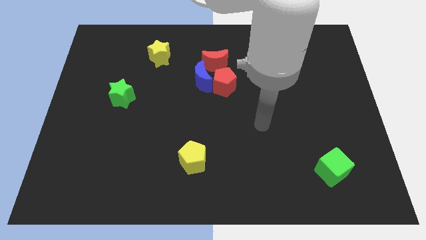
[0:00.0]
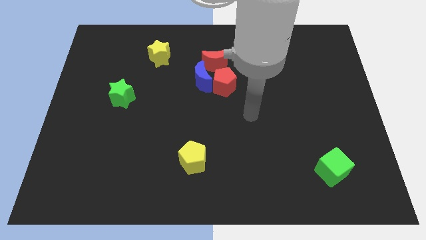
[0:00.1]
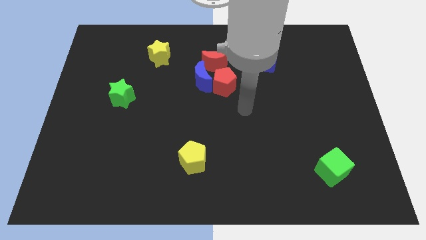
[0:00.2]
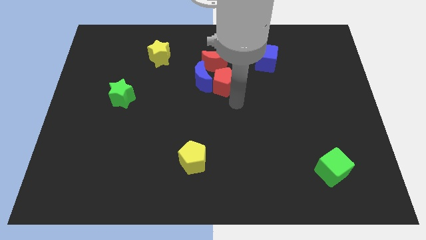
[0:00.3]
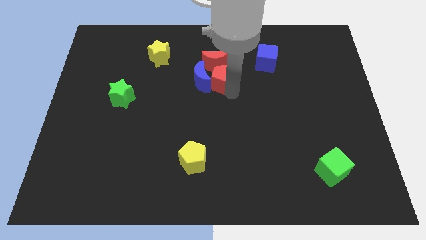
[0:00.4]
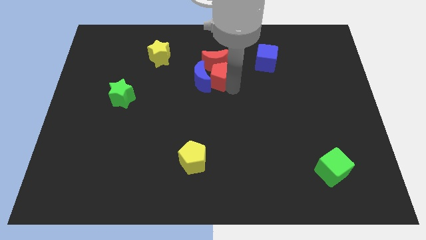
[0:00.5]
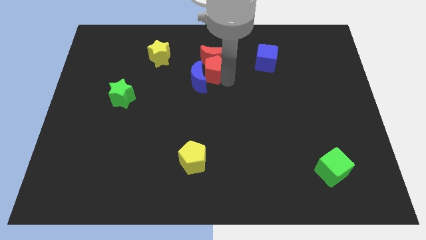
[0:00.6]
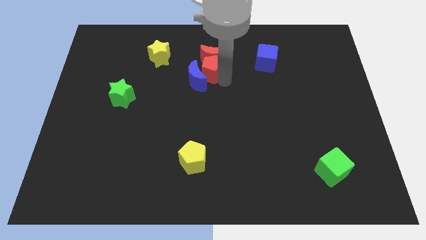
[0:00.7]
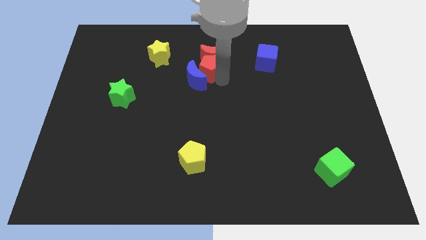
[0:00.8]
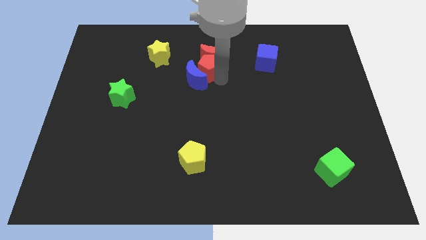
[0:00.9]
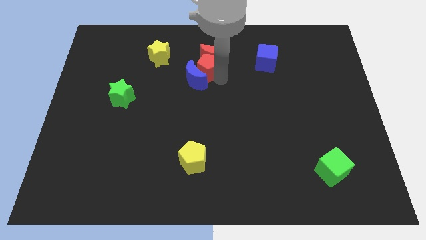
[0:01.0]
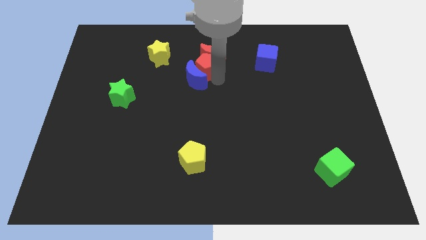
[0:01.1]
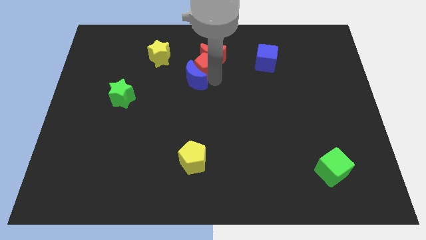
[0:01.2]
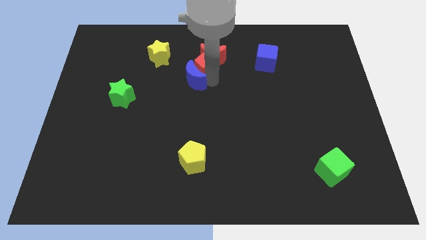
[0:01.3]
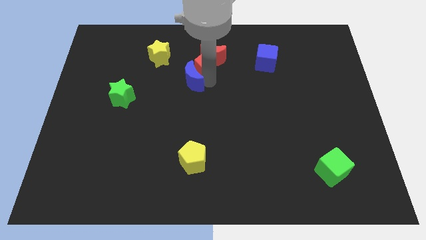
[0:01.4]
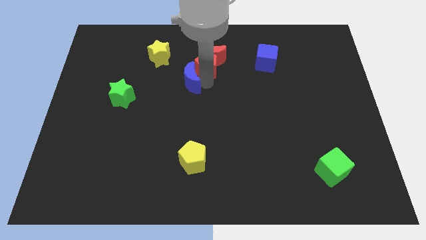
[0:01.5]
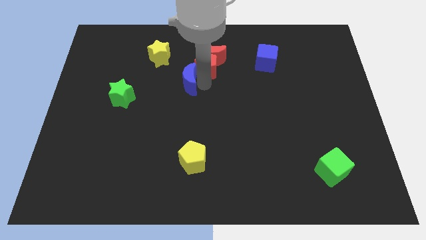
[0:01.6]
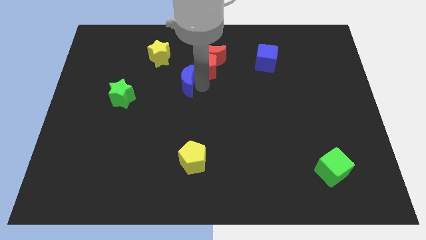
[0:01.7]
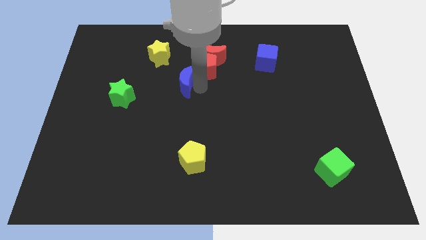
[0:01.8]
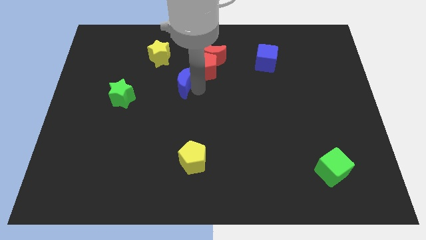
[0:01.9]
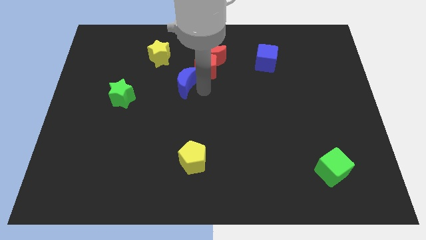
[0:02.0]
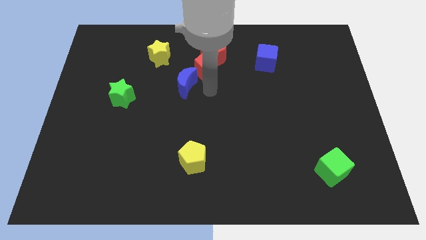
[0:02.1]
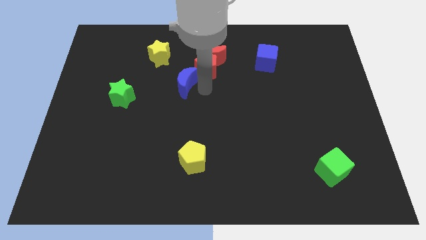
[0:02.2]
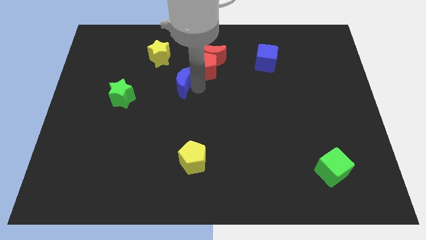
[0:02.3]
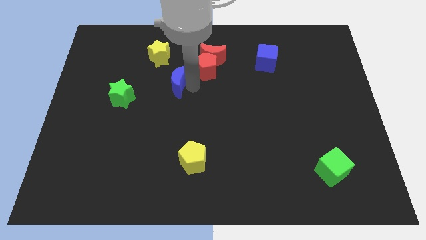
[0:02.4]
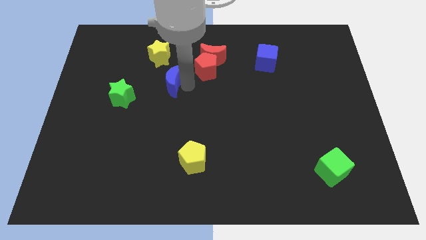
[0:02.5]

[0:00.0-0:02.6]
slightly slide the blue moon left

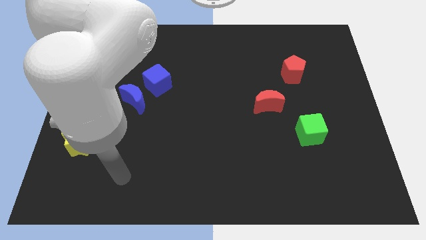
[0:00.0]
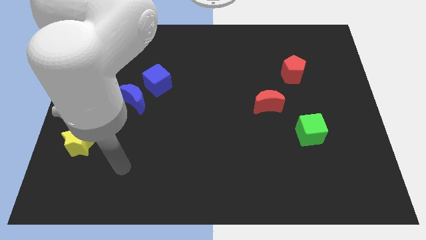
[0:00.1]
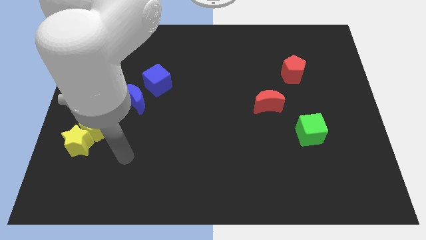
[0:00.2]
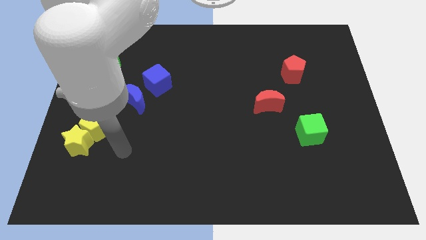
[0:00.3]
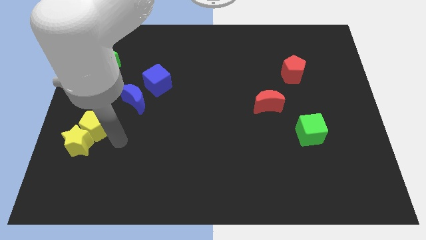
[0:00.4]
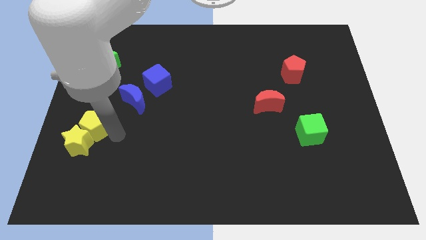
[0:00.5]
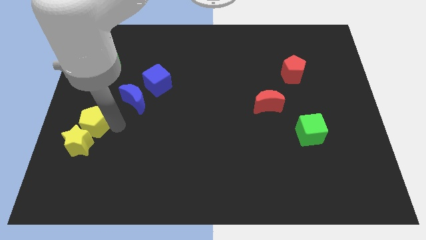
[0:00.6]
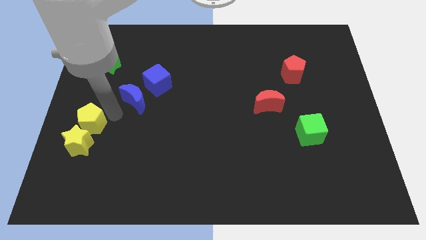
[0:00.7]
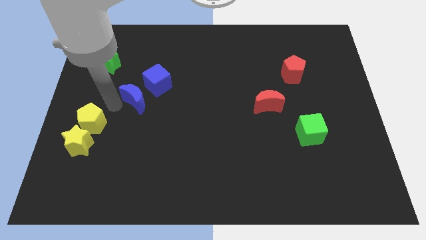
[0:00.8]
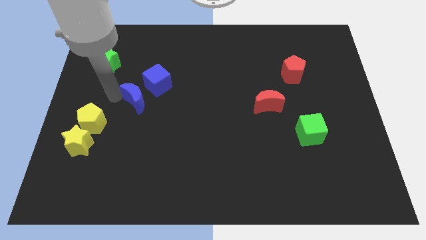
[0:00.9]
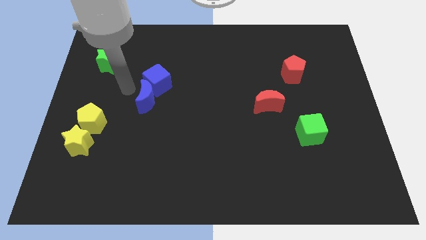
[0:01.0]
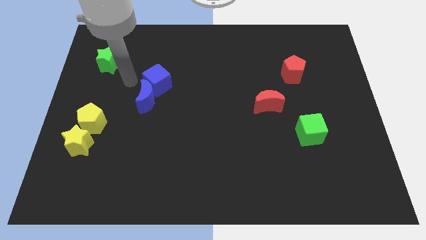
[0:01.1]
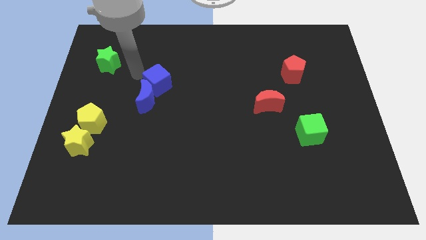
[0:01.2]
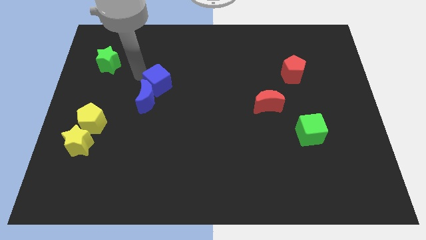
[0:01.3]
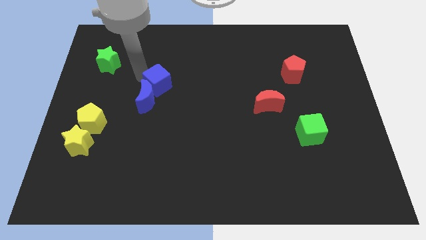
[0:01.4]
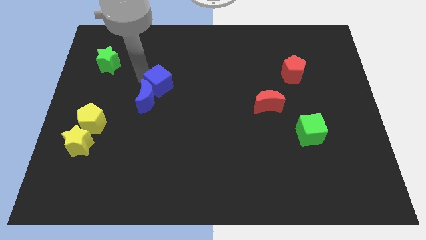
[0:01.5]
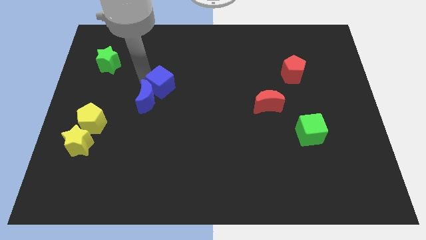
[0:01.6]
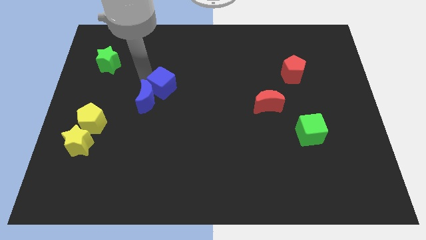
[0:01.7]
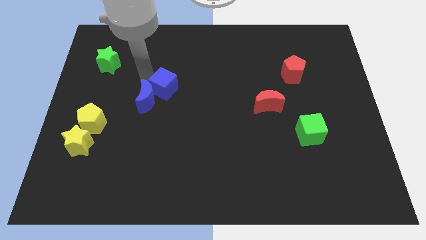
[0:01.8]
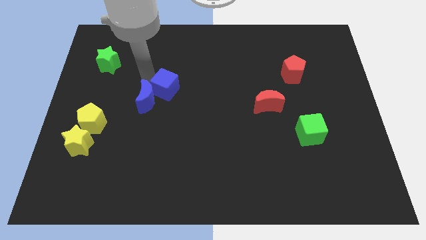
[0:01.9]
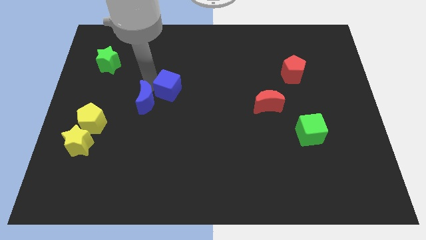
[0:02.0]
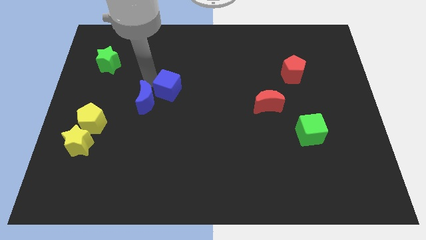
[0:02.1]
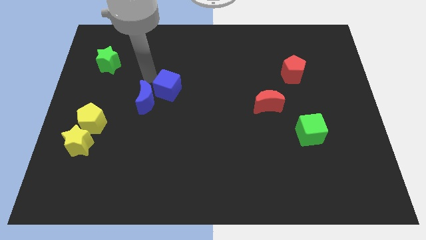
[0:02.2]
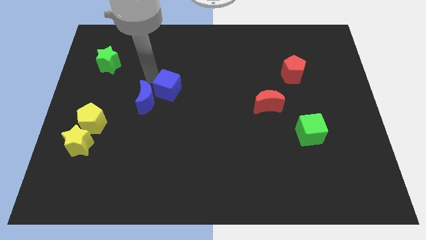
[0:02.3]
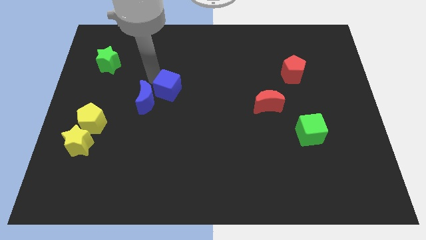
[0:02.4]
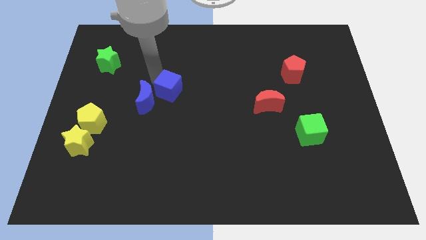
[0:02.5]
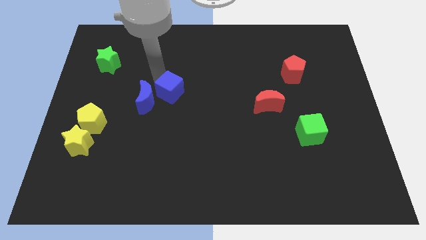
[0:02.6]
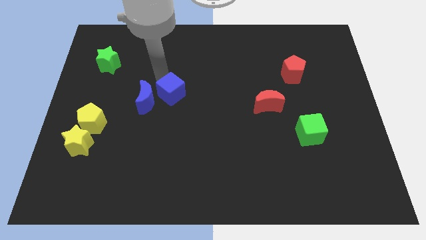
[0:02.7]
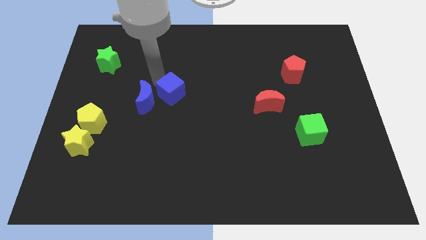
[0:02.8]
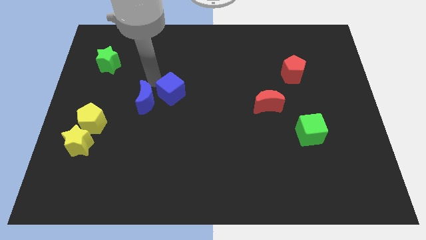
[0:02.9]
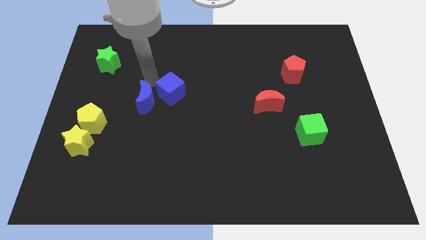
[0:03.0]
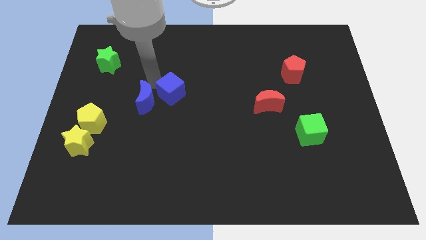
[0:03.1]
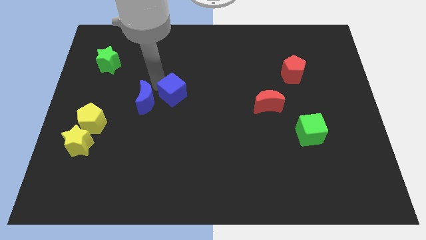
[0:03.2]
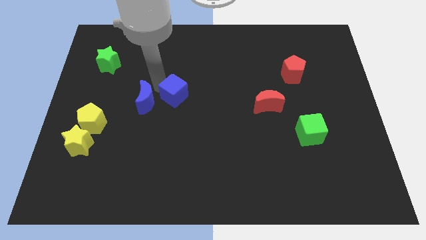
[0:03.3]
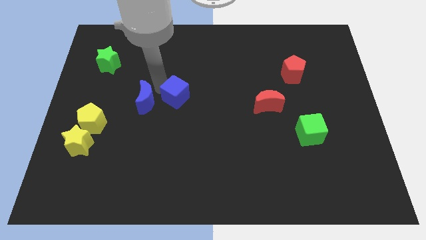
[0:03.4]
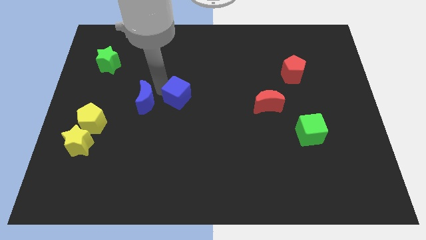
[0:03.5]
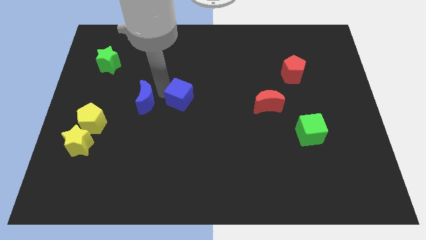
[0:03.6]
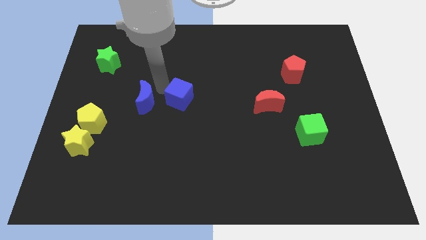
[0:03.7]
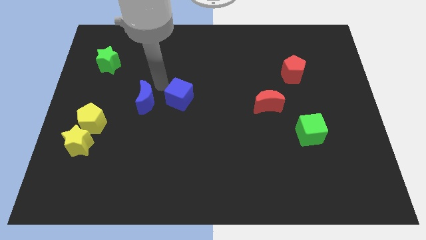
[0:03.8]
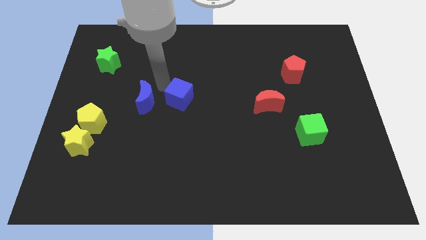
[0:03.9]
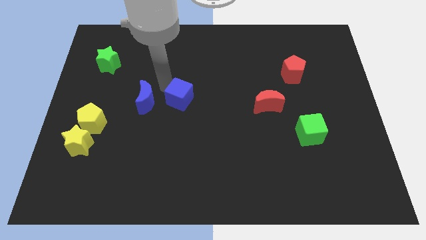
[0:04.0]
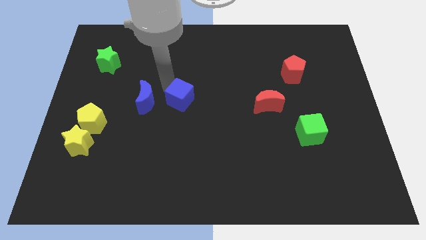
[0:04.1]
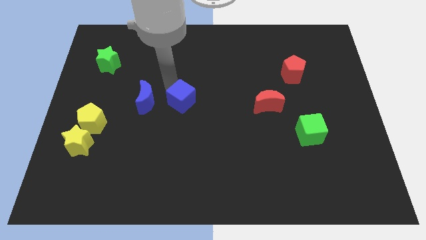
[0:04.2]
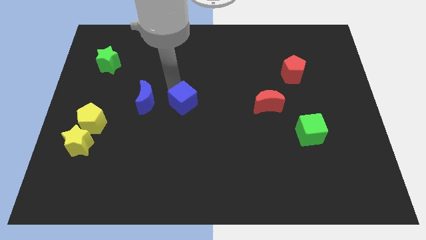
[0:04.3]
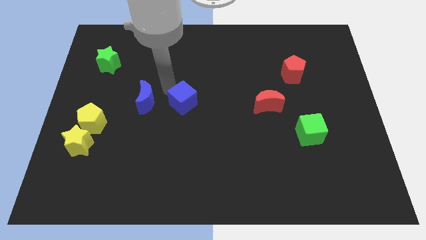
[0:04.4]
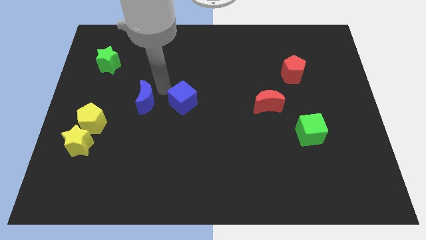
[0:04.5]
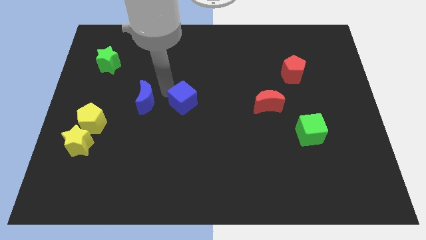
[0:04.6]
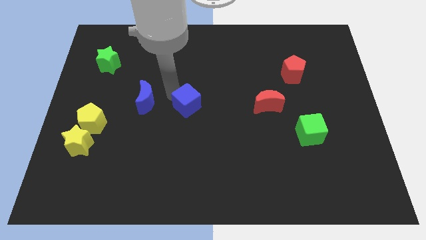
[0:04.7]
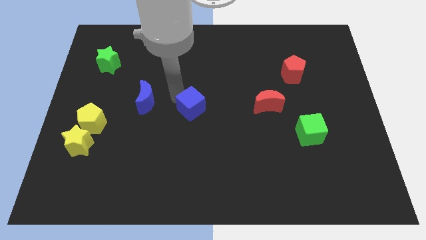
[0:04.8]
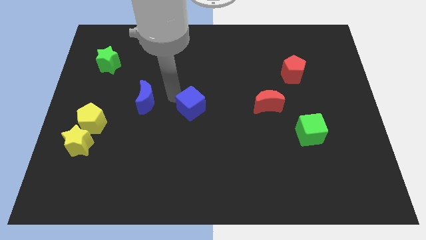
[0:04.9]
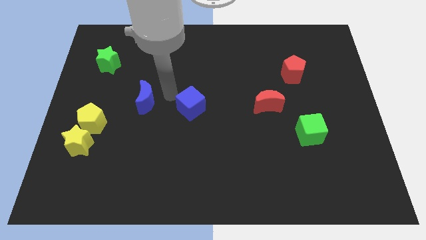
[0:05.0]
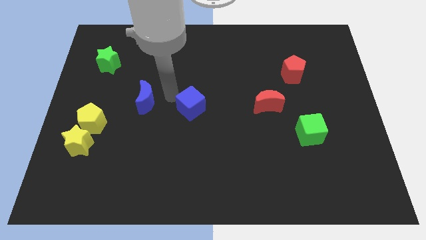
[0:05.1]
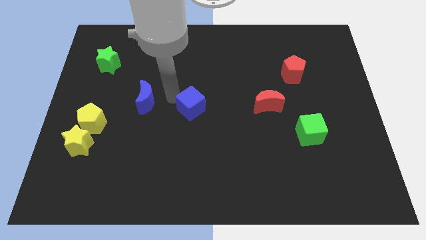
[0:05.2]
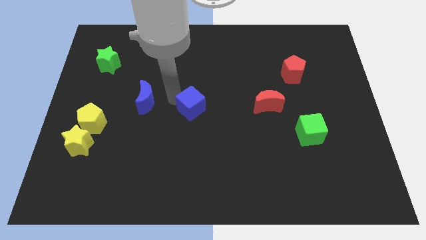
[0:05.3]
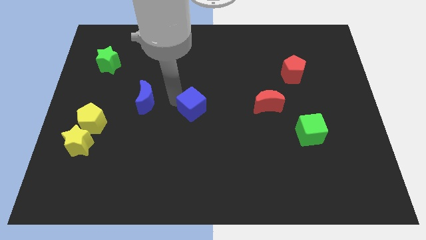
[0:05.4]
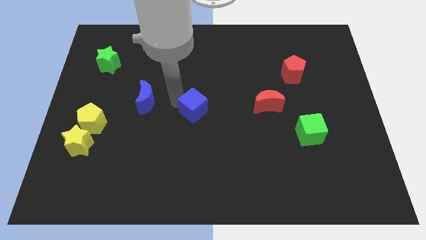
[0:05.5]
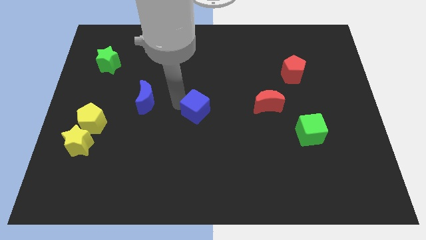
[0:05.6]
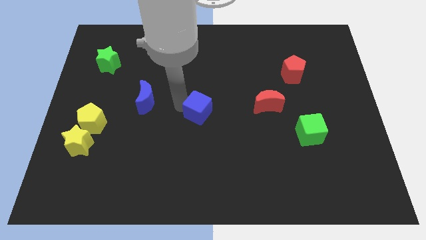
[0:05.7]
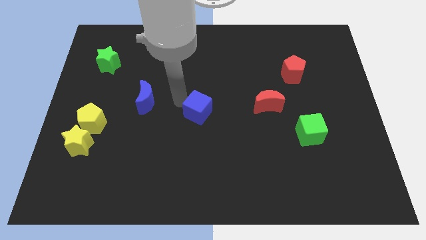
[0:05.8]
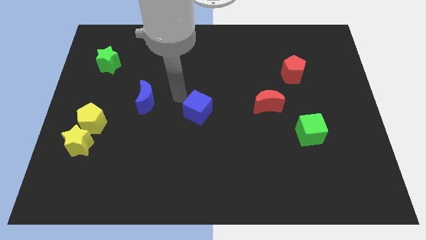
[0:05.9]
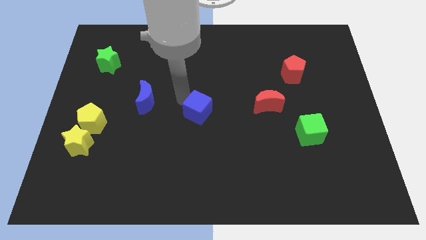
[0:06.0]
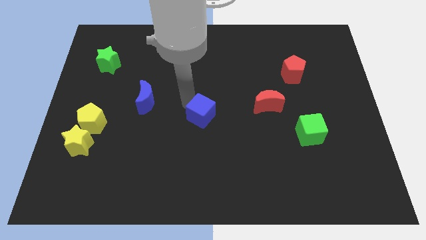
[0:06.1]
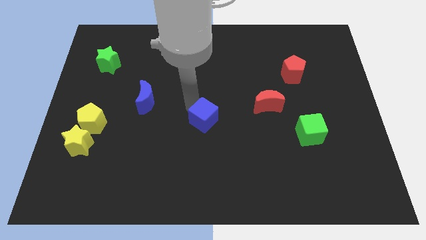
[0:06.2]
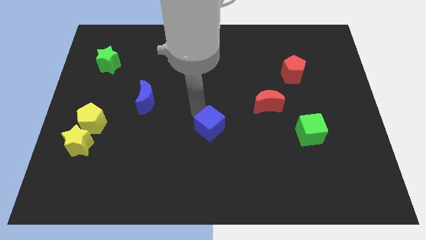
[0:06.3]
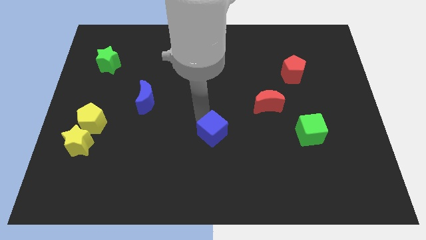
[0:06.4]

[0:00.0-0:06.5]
slide the blue cube downwards and to the right diagonally
